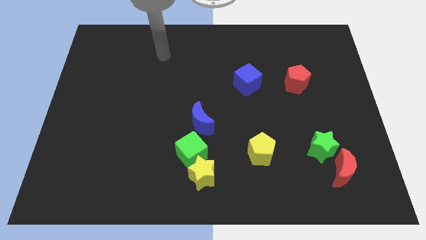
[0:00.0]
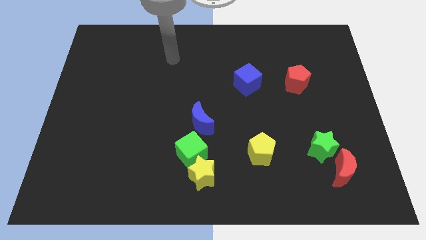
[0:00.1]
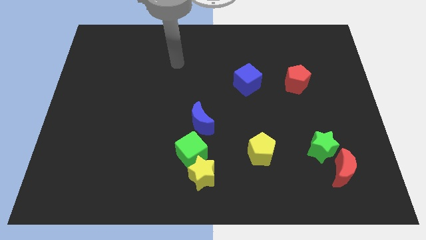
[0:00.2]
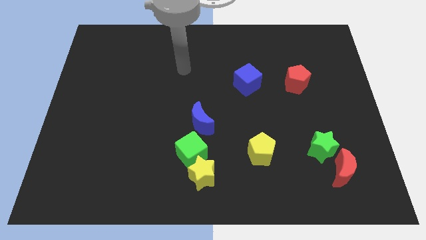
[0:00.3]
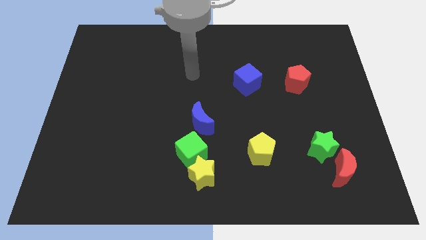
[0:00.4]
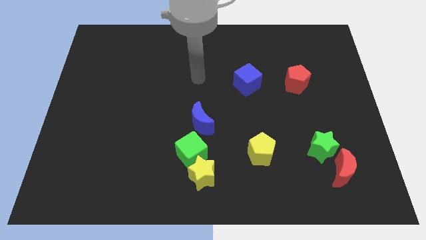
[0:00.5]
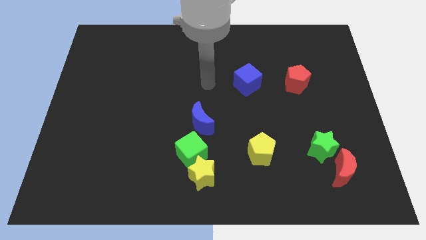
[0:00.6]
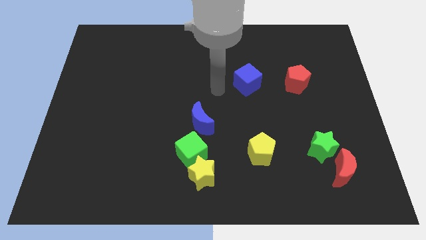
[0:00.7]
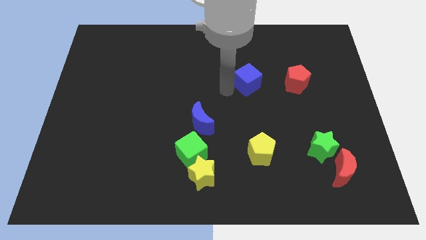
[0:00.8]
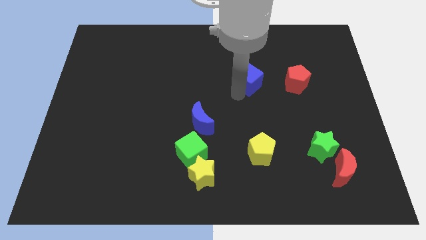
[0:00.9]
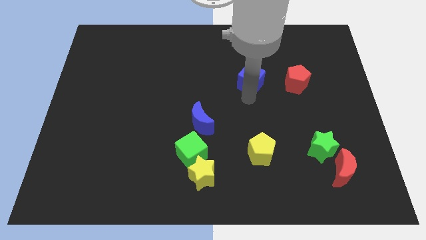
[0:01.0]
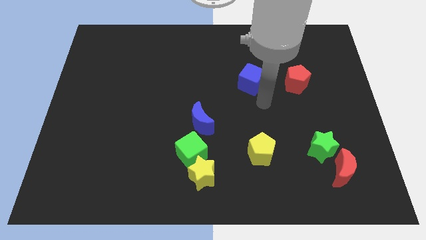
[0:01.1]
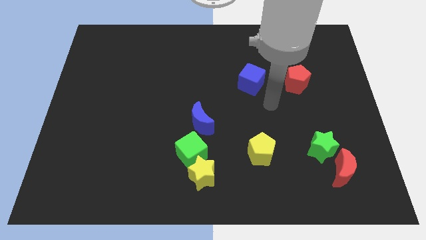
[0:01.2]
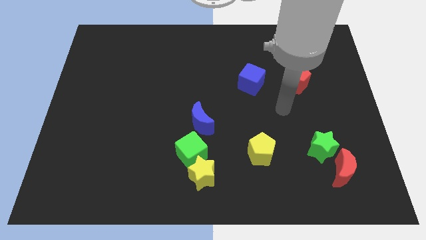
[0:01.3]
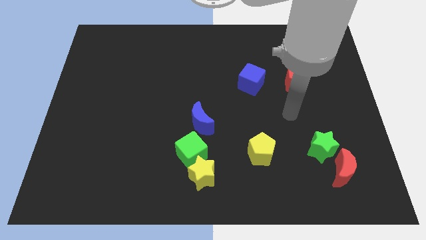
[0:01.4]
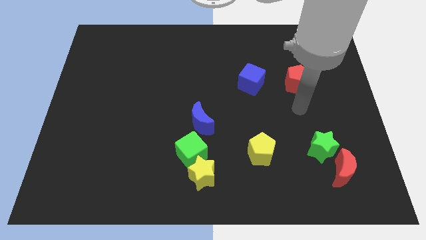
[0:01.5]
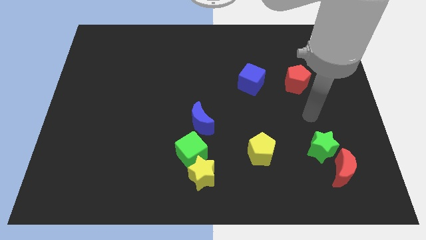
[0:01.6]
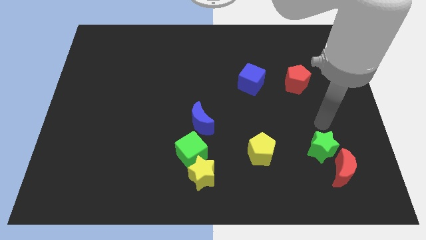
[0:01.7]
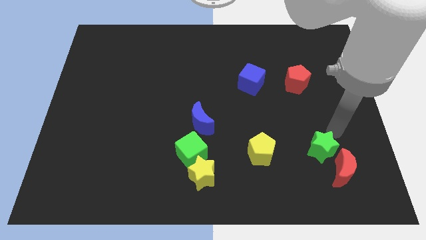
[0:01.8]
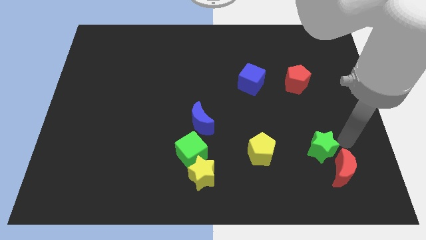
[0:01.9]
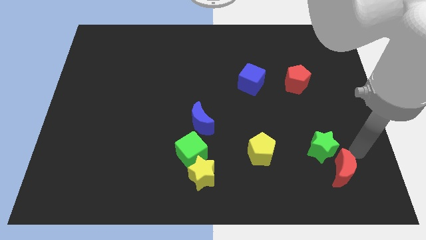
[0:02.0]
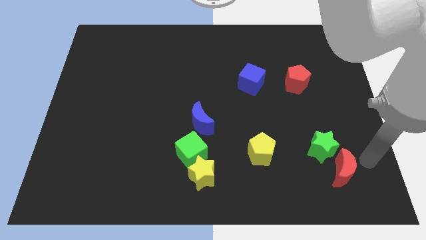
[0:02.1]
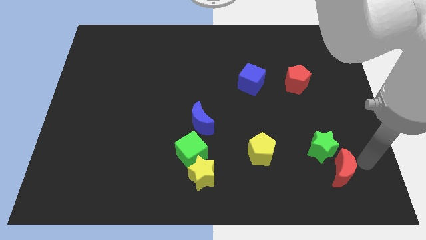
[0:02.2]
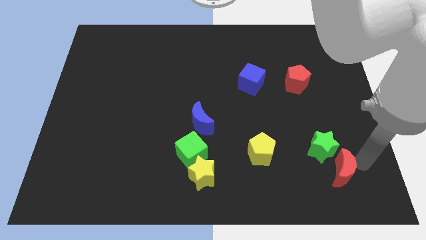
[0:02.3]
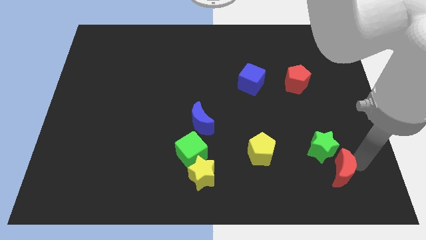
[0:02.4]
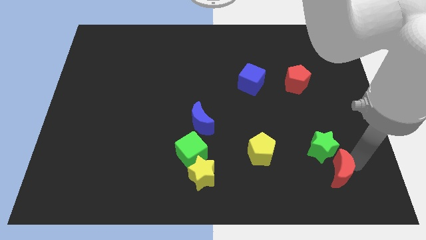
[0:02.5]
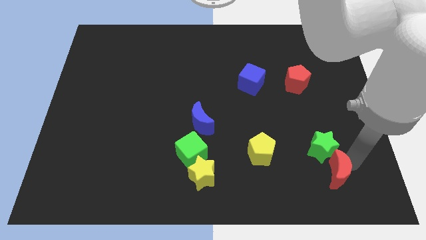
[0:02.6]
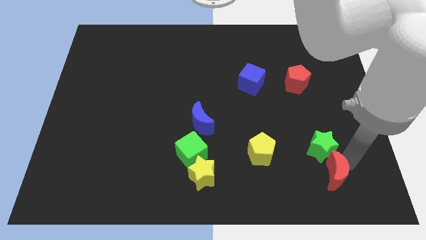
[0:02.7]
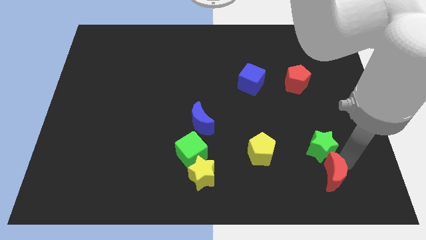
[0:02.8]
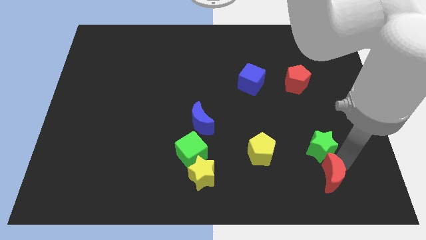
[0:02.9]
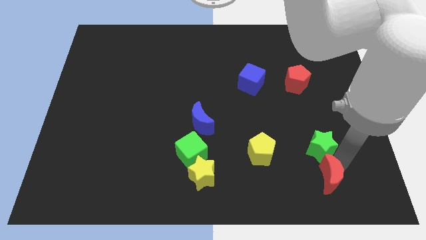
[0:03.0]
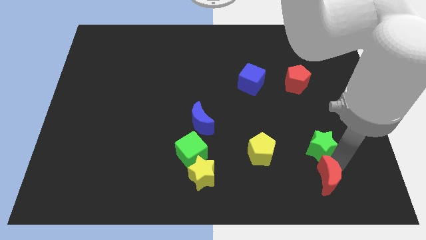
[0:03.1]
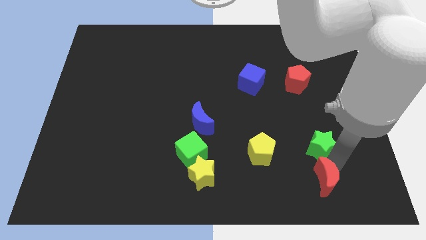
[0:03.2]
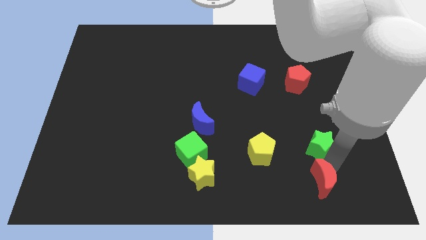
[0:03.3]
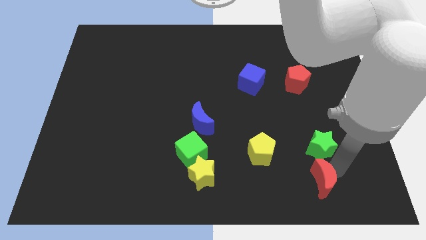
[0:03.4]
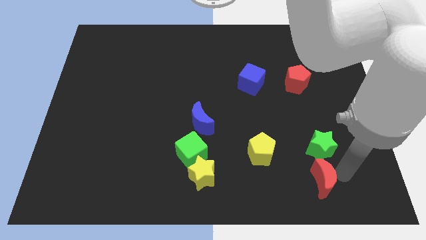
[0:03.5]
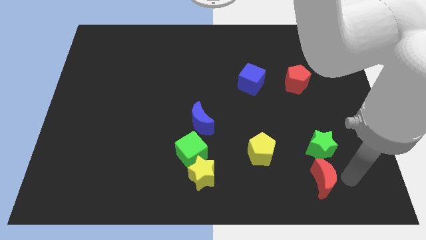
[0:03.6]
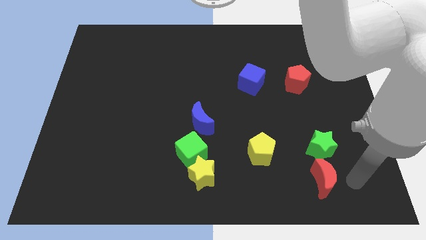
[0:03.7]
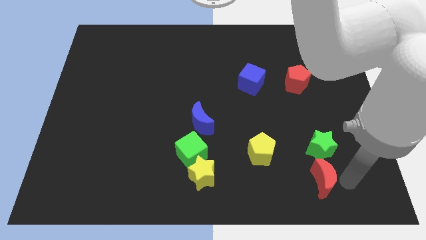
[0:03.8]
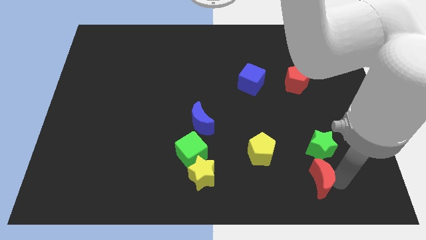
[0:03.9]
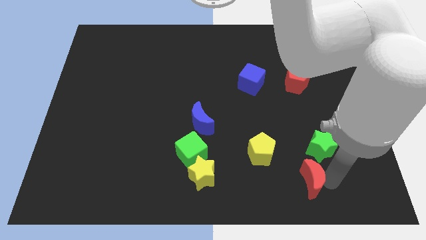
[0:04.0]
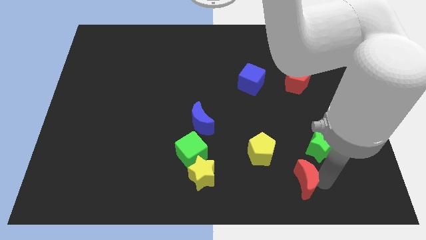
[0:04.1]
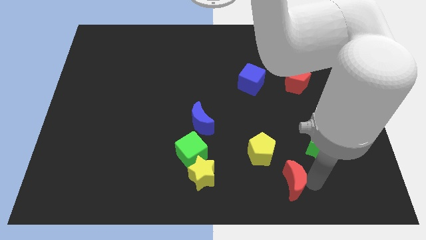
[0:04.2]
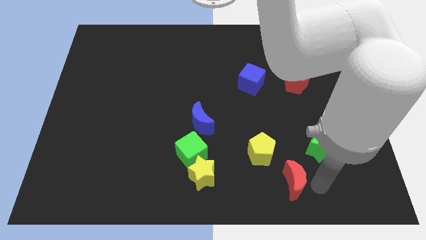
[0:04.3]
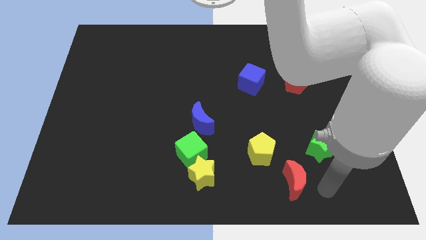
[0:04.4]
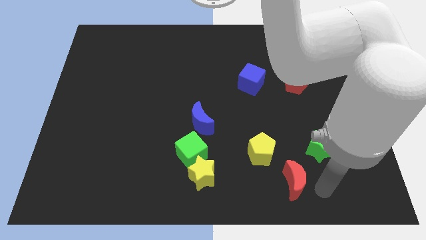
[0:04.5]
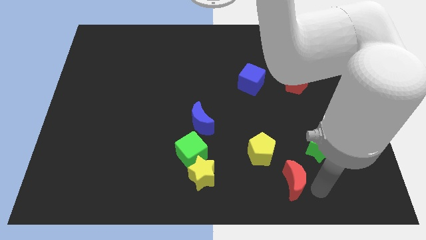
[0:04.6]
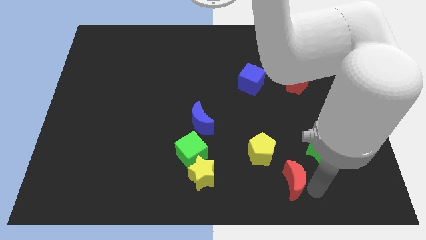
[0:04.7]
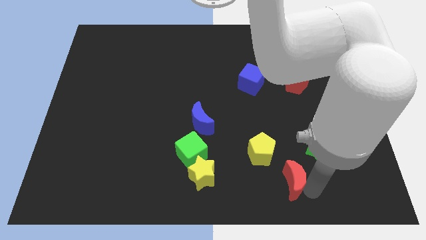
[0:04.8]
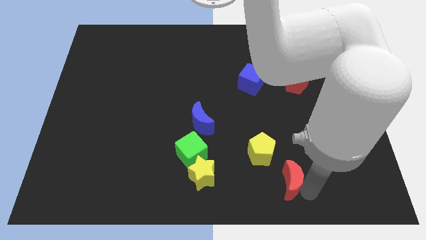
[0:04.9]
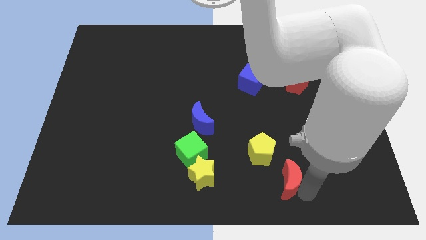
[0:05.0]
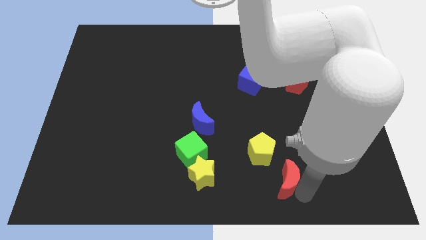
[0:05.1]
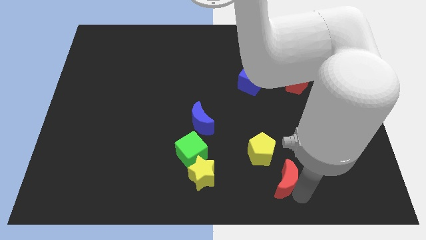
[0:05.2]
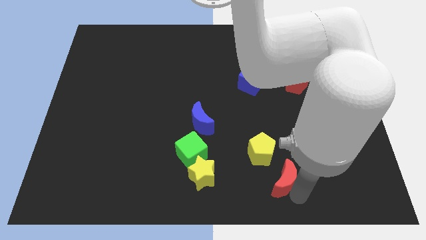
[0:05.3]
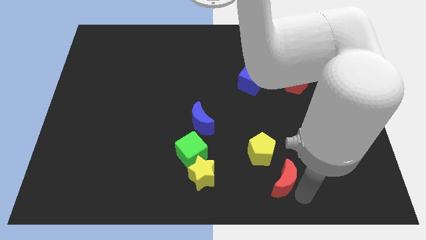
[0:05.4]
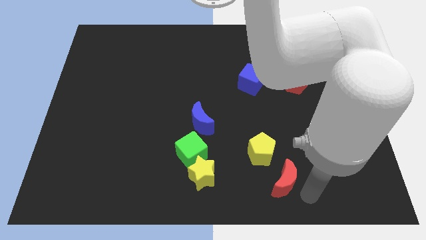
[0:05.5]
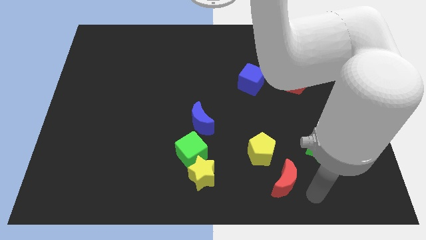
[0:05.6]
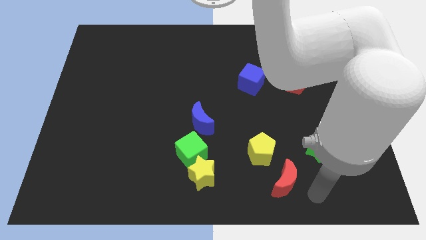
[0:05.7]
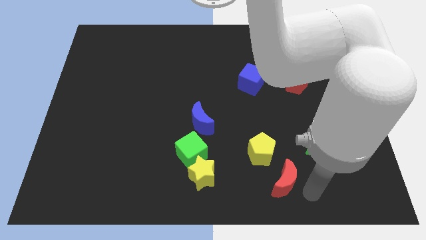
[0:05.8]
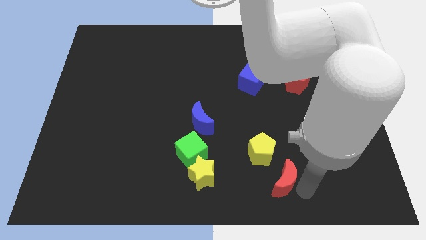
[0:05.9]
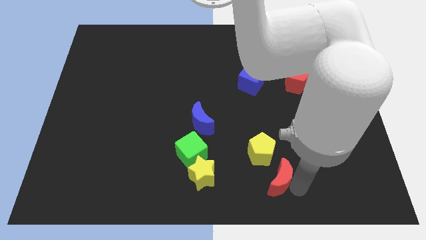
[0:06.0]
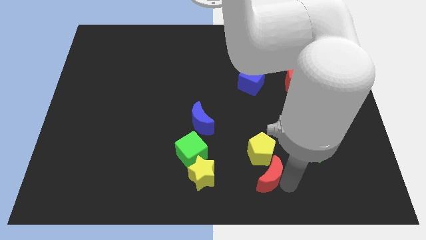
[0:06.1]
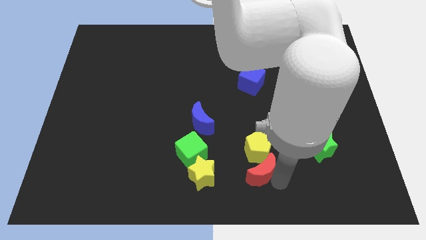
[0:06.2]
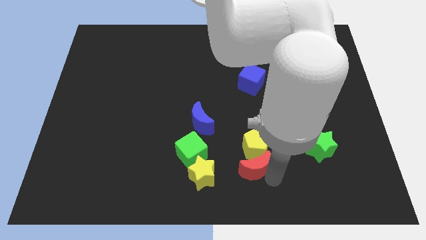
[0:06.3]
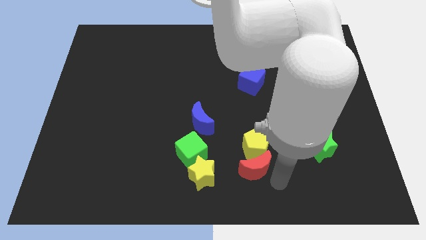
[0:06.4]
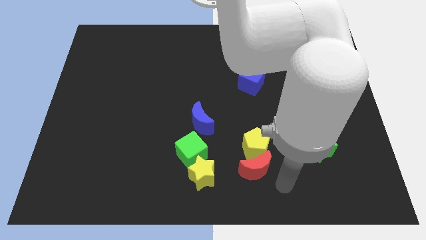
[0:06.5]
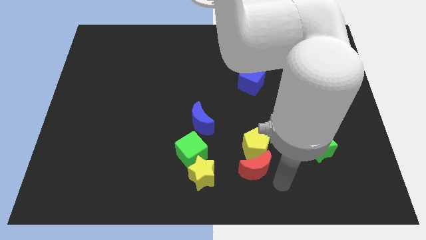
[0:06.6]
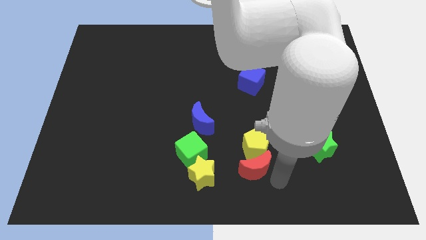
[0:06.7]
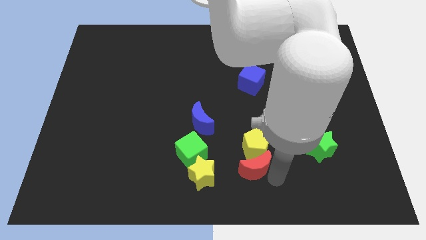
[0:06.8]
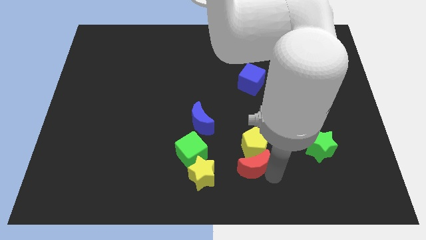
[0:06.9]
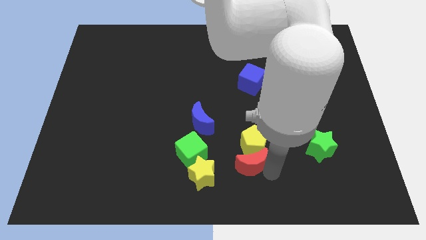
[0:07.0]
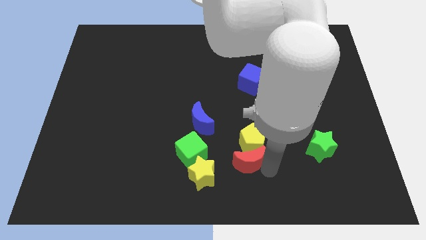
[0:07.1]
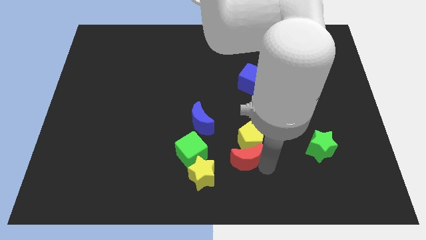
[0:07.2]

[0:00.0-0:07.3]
move the red moon to the top right side of the yellow star

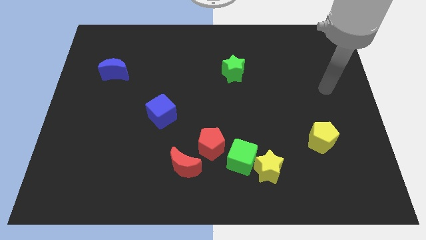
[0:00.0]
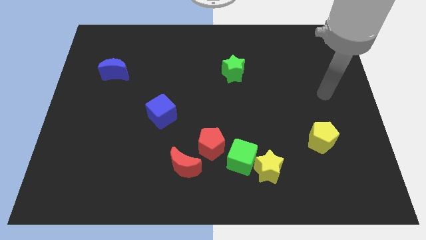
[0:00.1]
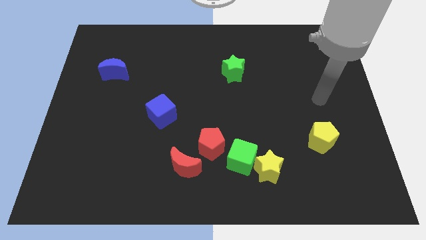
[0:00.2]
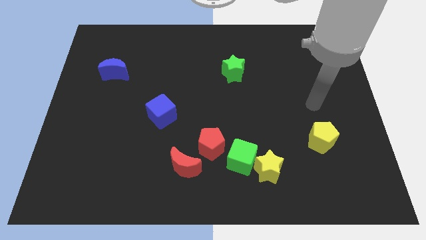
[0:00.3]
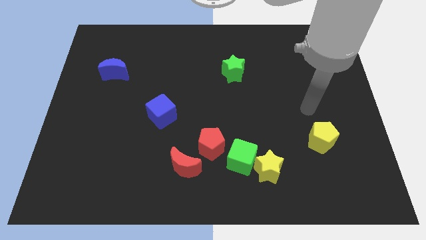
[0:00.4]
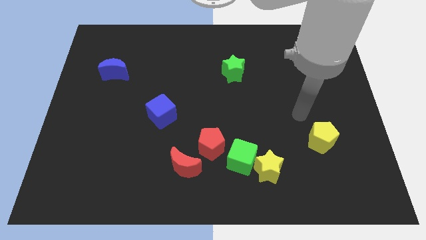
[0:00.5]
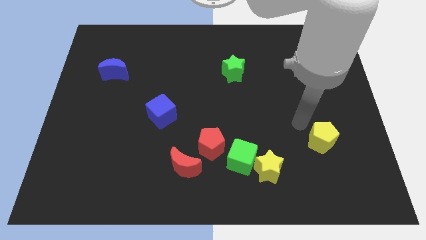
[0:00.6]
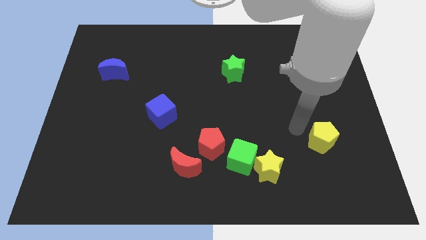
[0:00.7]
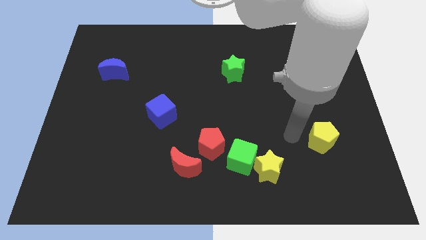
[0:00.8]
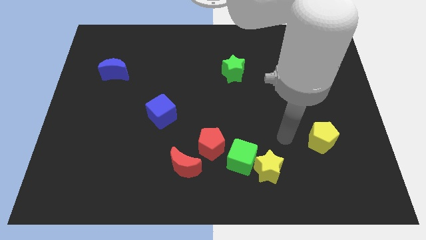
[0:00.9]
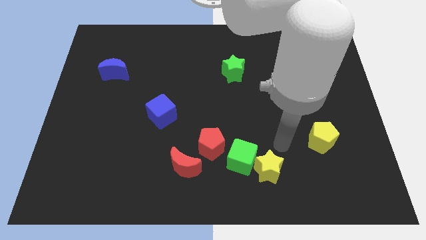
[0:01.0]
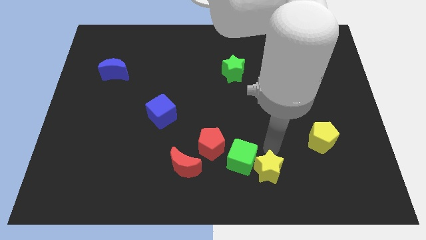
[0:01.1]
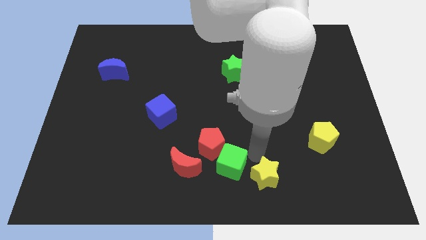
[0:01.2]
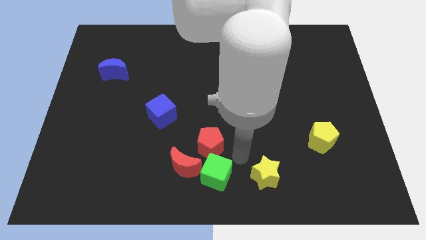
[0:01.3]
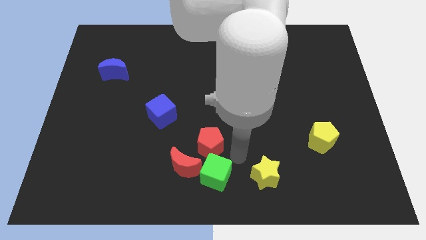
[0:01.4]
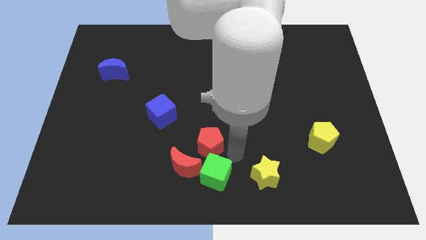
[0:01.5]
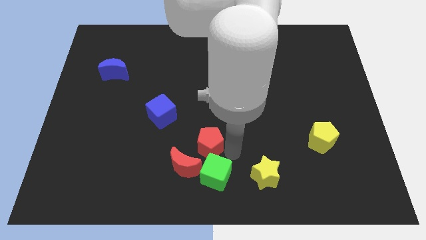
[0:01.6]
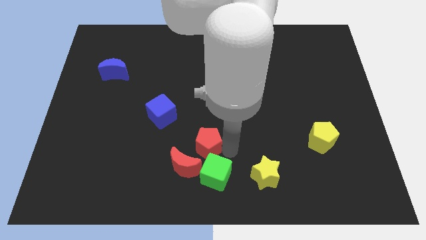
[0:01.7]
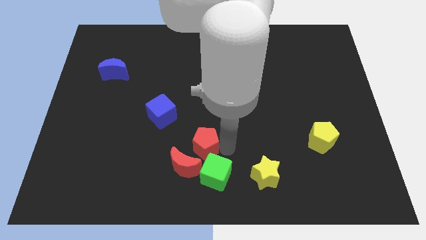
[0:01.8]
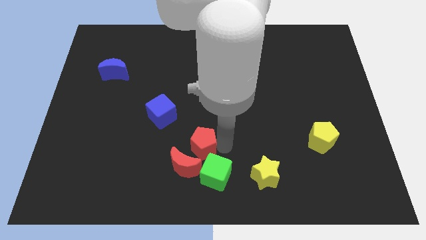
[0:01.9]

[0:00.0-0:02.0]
slide the red pentagon to the bottom right of the blue cube
